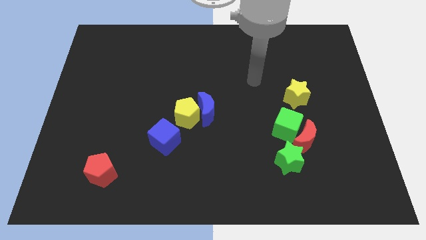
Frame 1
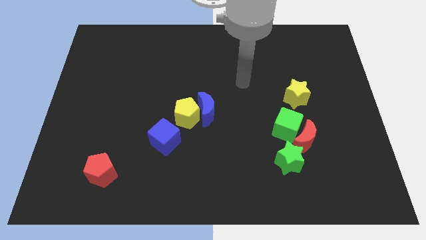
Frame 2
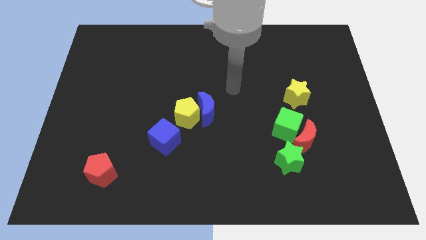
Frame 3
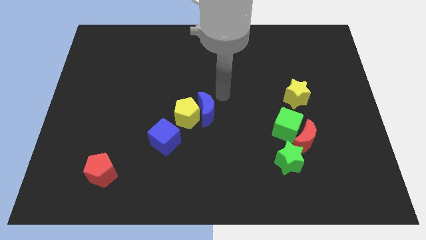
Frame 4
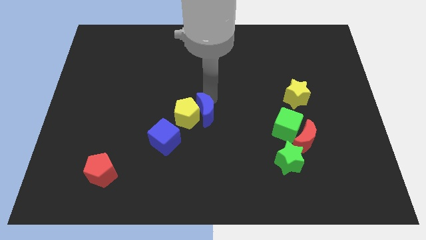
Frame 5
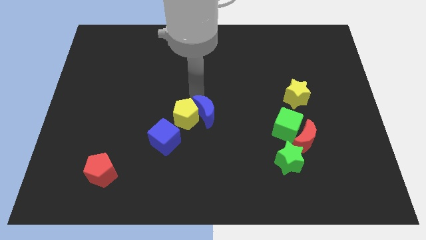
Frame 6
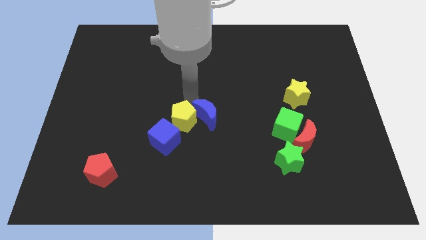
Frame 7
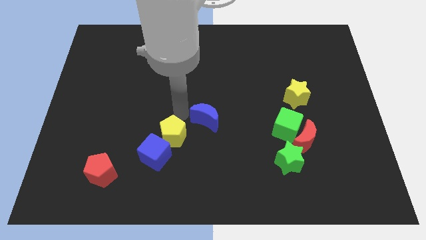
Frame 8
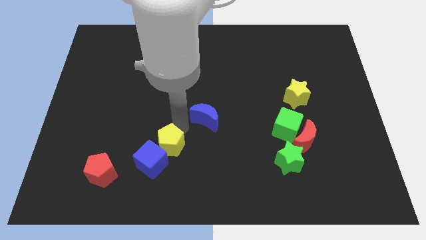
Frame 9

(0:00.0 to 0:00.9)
separate the blue moon from the yellow pentagon

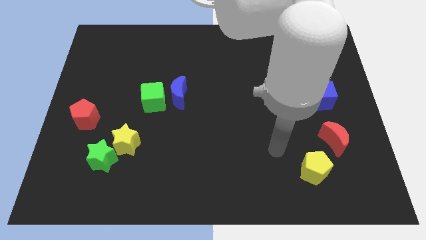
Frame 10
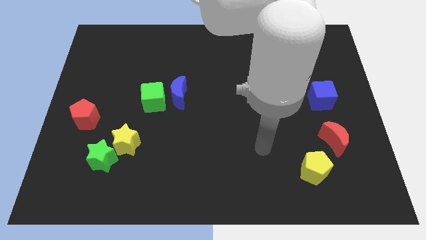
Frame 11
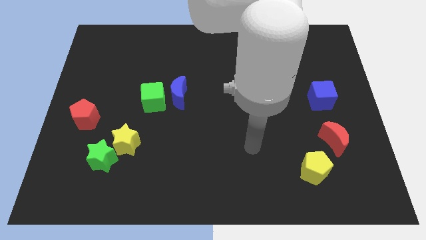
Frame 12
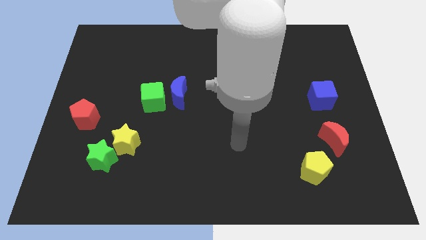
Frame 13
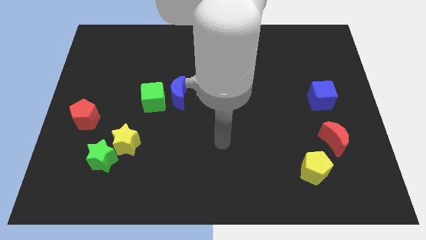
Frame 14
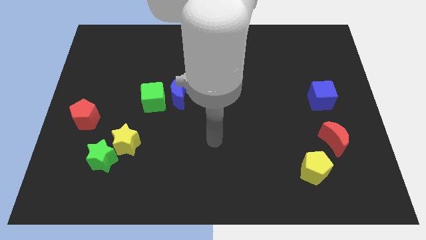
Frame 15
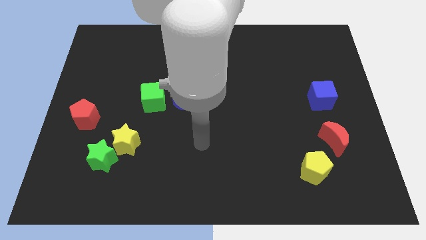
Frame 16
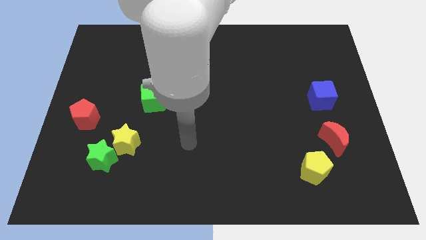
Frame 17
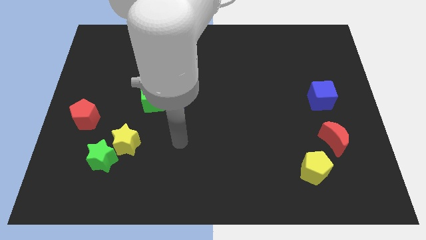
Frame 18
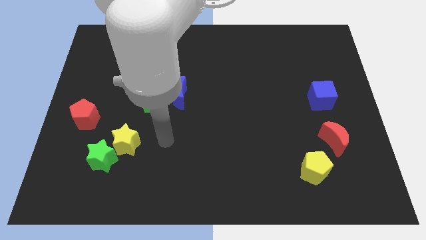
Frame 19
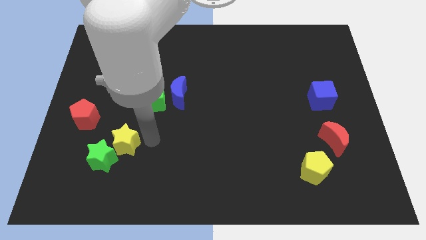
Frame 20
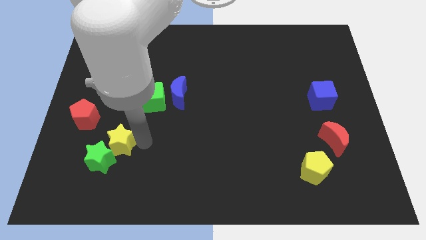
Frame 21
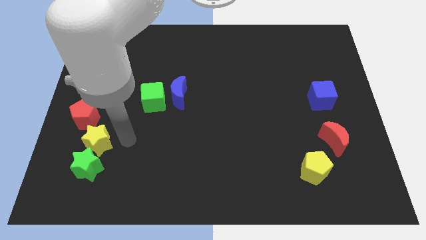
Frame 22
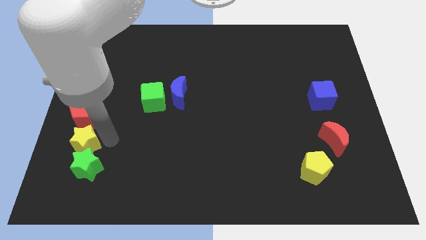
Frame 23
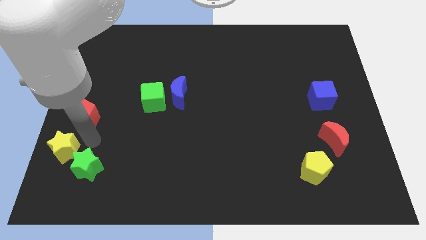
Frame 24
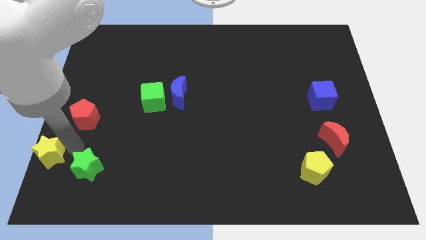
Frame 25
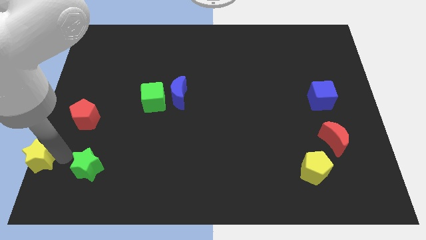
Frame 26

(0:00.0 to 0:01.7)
pull the green star apart from the yellow star

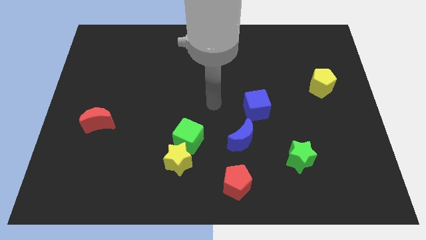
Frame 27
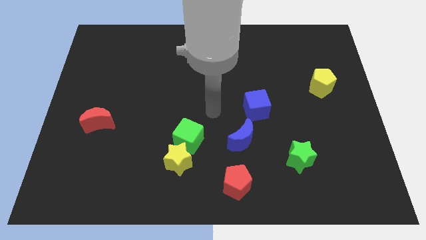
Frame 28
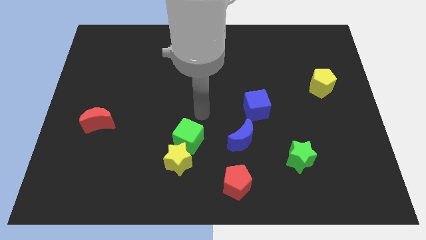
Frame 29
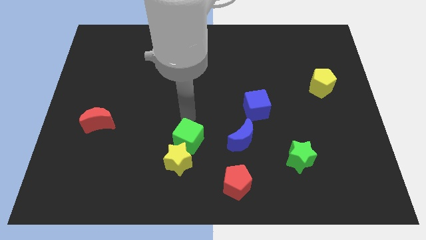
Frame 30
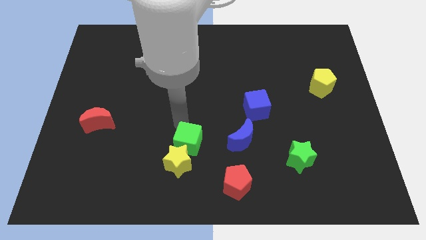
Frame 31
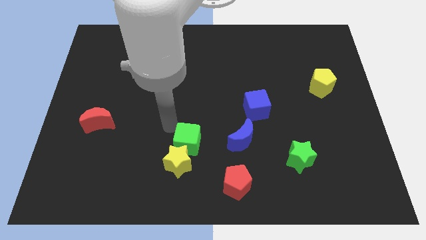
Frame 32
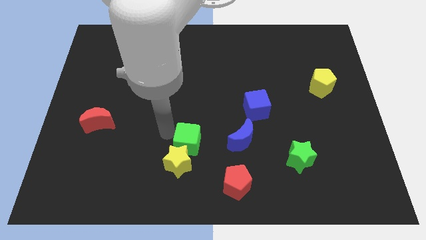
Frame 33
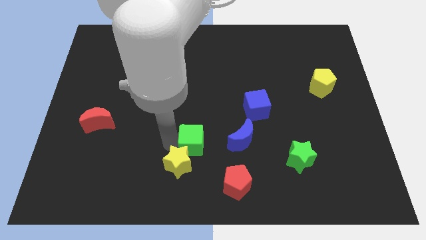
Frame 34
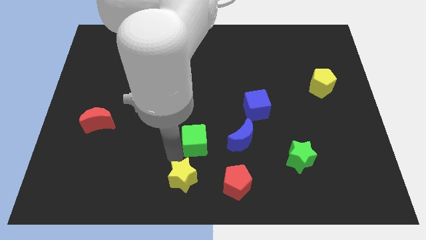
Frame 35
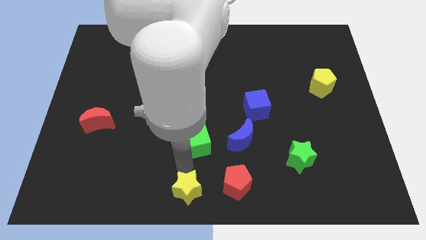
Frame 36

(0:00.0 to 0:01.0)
move the green cube away from the yellow star

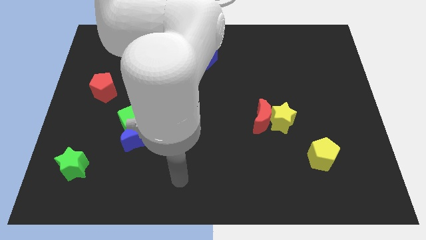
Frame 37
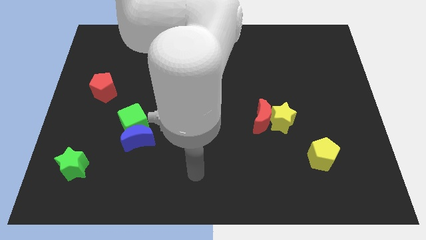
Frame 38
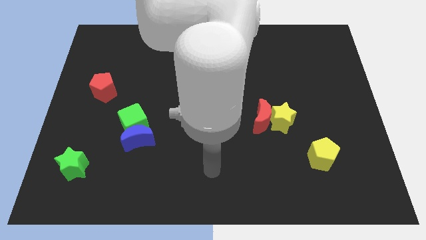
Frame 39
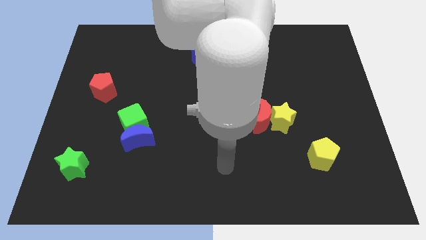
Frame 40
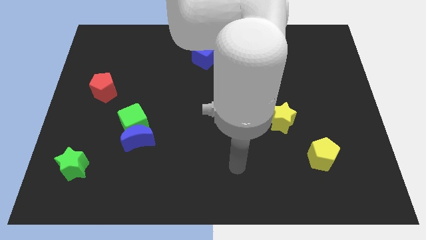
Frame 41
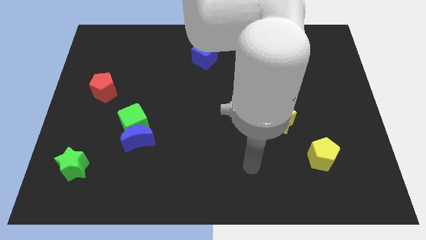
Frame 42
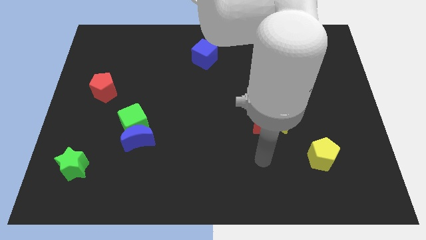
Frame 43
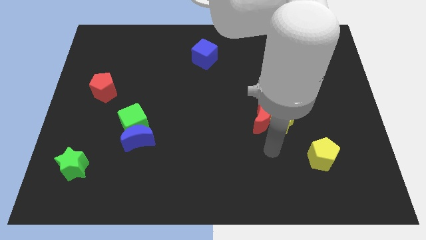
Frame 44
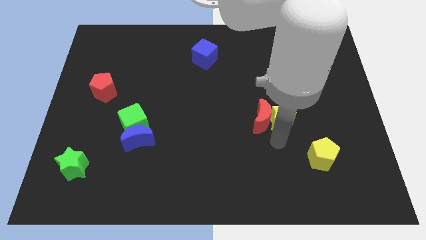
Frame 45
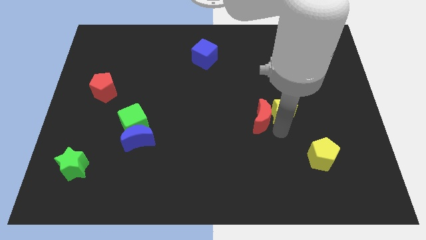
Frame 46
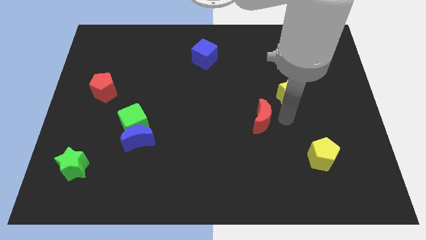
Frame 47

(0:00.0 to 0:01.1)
pull the red moon apart from the yellow star

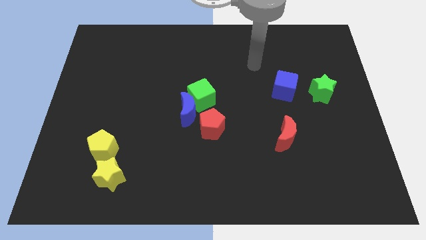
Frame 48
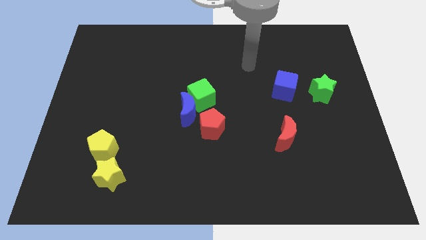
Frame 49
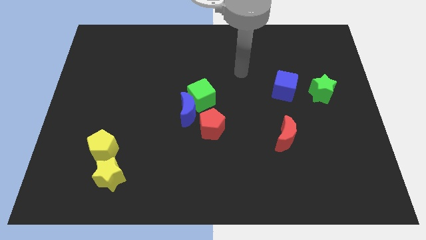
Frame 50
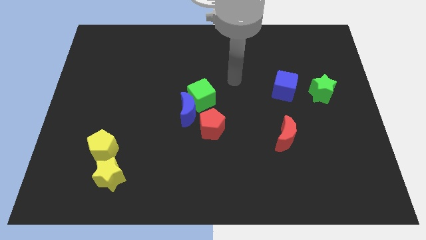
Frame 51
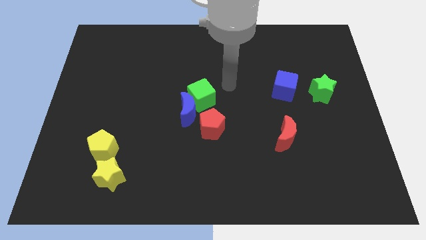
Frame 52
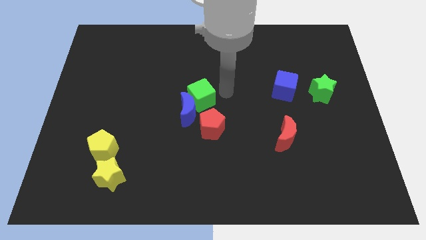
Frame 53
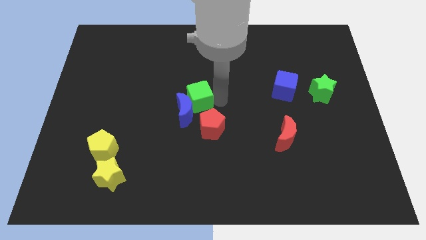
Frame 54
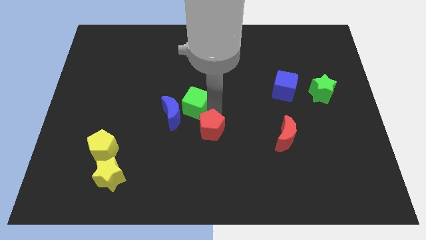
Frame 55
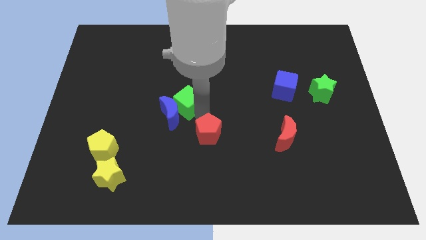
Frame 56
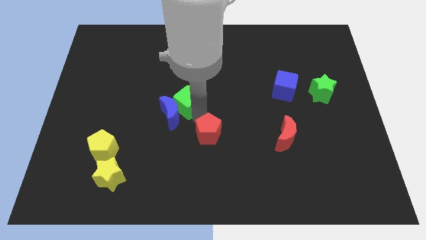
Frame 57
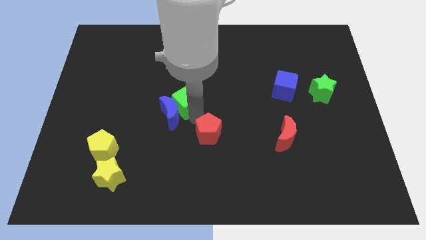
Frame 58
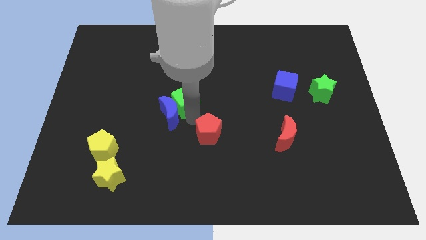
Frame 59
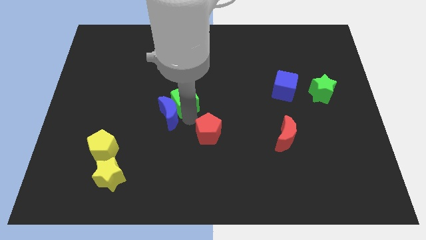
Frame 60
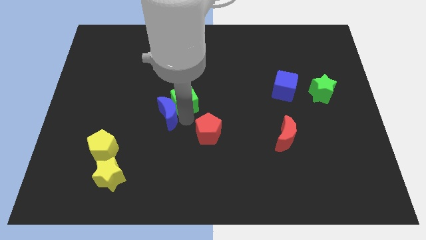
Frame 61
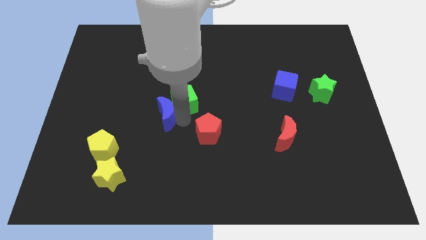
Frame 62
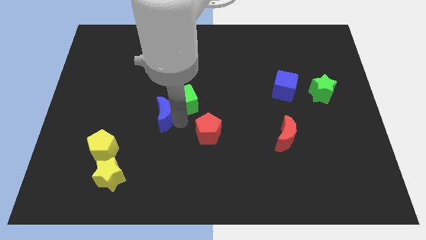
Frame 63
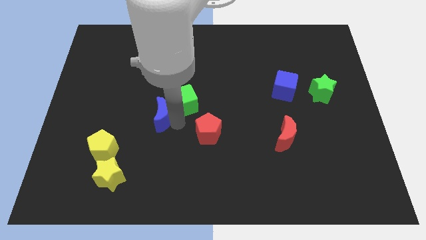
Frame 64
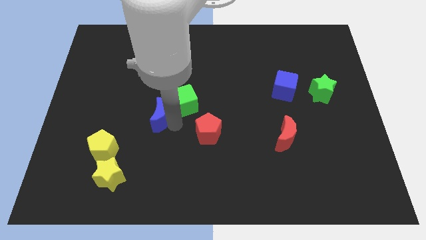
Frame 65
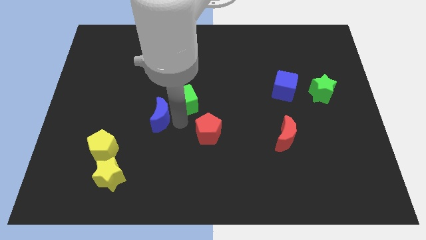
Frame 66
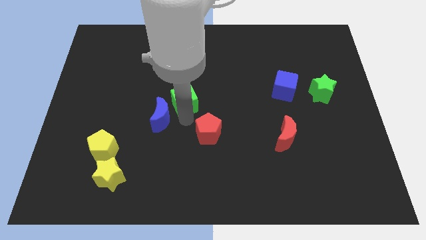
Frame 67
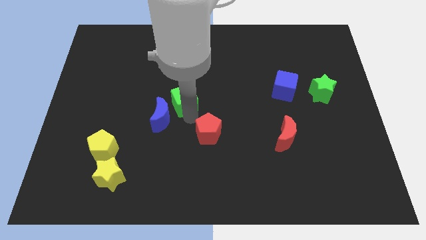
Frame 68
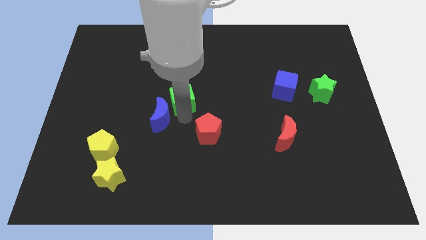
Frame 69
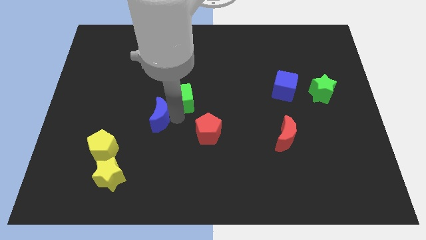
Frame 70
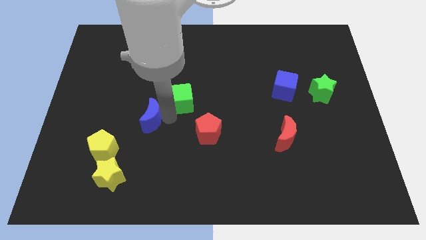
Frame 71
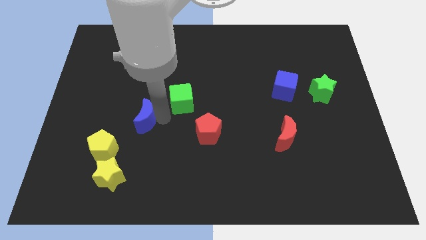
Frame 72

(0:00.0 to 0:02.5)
pull the blue moon apart from the green cube and red pentagon

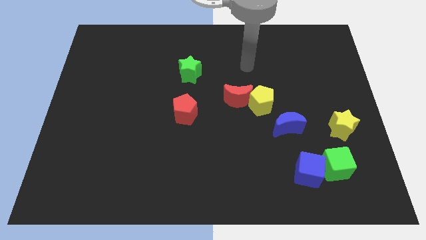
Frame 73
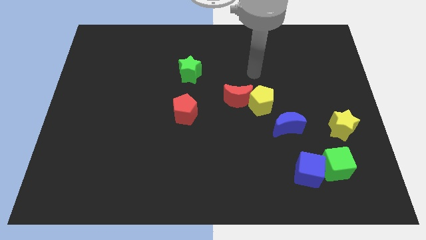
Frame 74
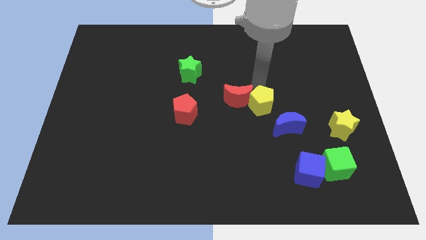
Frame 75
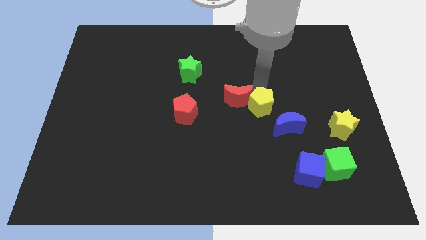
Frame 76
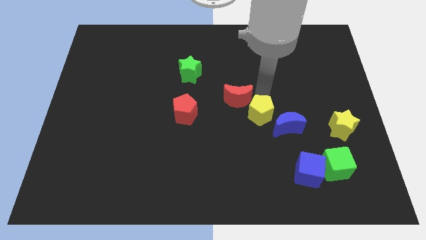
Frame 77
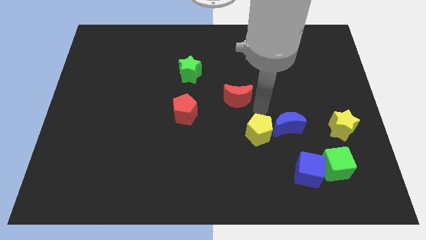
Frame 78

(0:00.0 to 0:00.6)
separate the red moon from the yellow pentagon

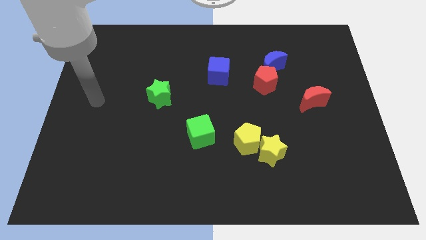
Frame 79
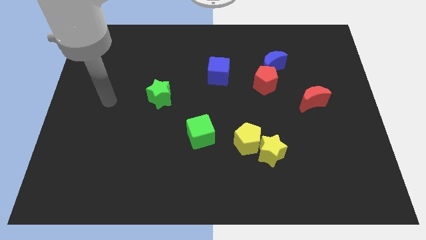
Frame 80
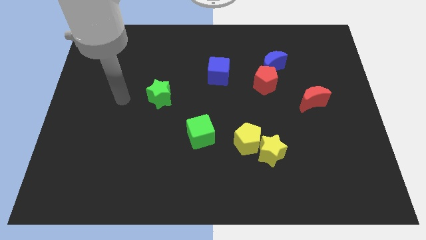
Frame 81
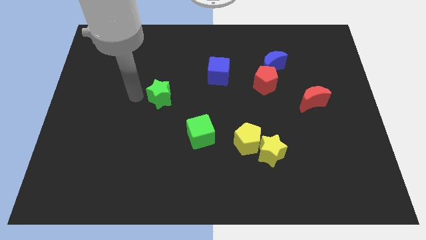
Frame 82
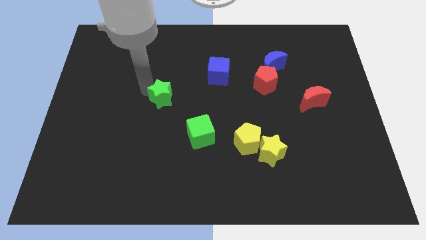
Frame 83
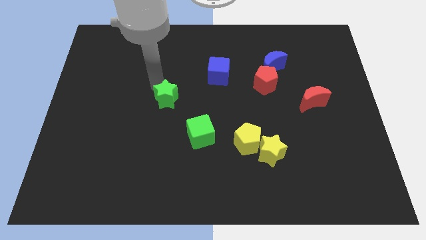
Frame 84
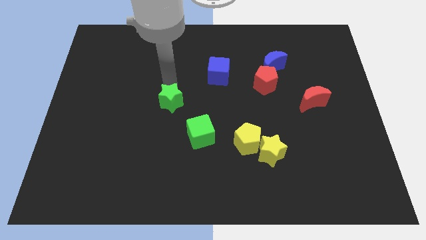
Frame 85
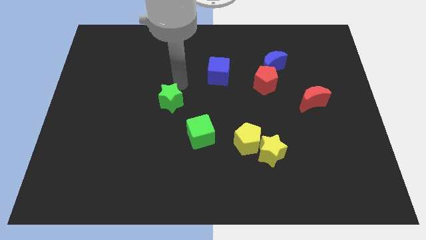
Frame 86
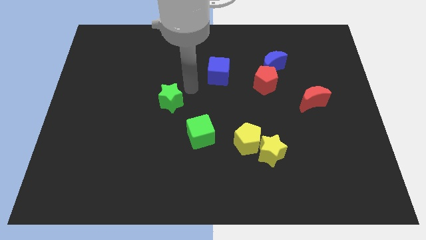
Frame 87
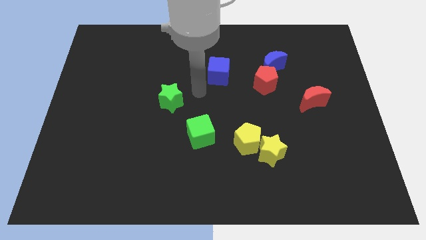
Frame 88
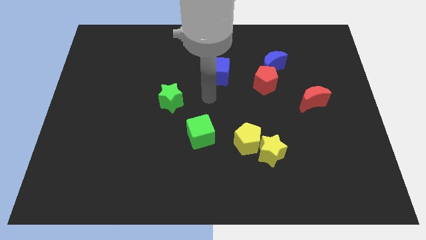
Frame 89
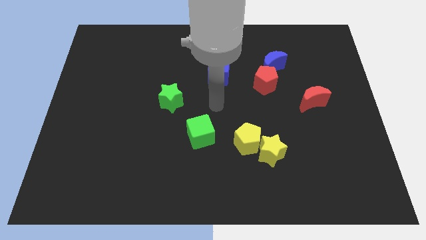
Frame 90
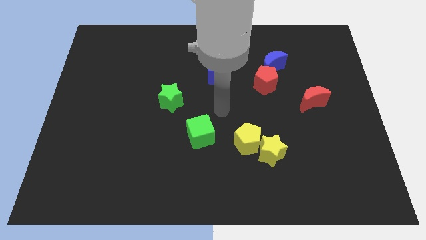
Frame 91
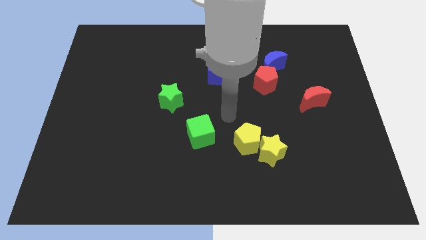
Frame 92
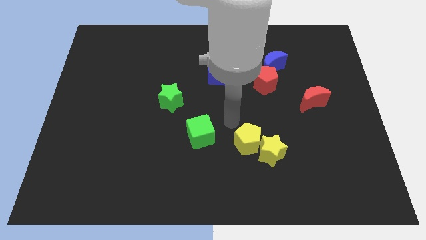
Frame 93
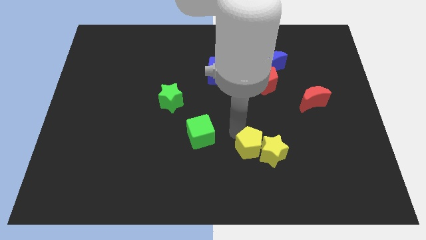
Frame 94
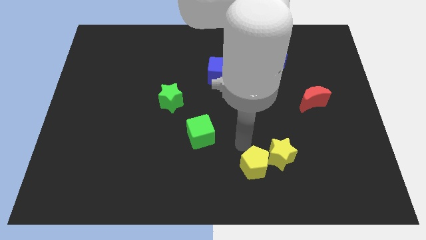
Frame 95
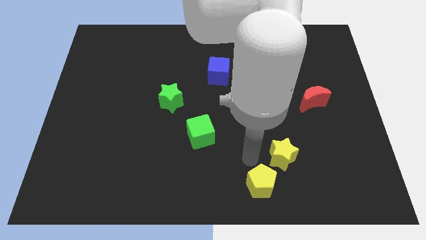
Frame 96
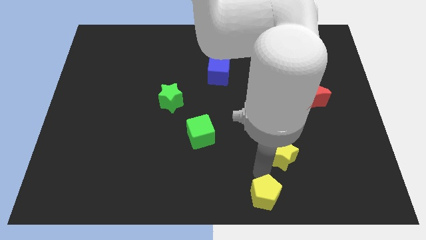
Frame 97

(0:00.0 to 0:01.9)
move the yellow star away from the yellow pentagon
